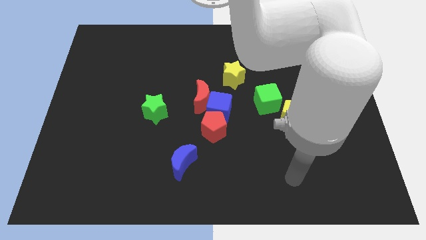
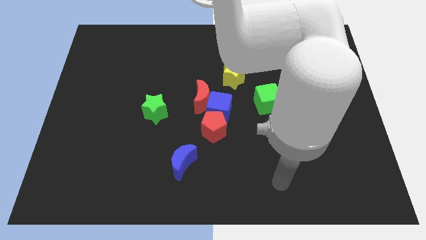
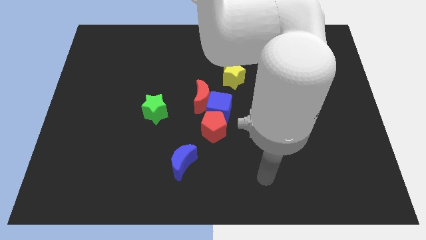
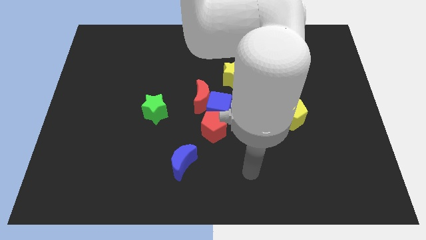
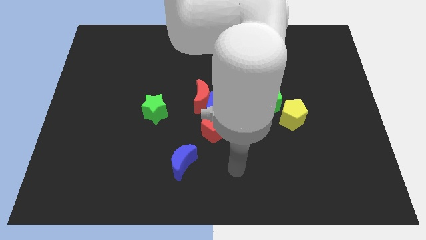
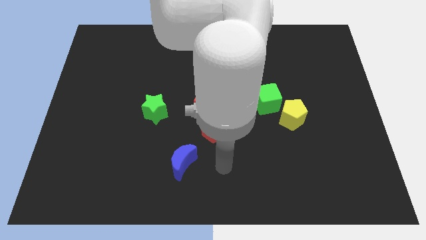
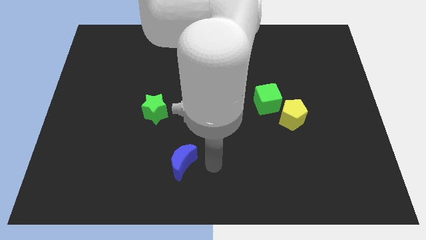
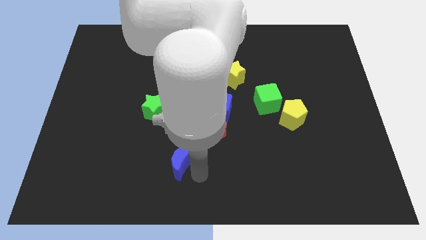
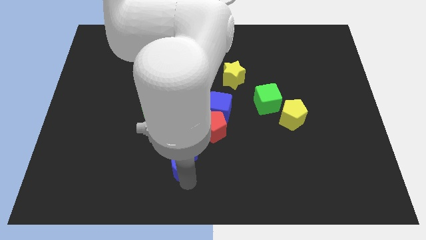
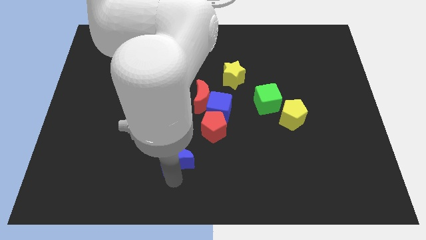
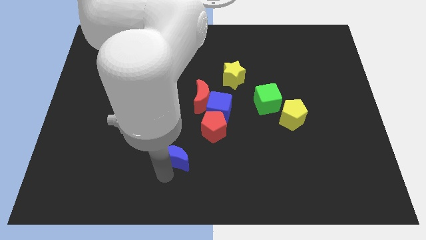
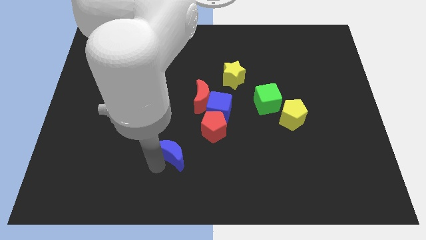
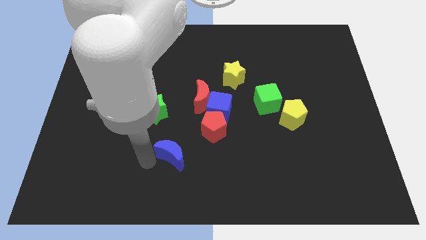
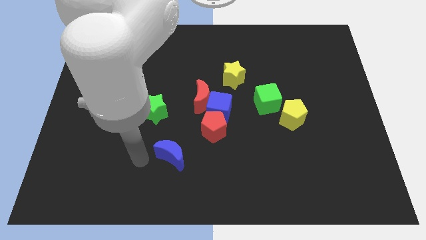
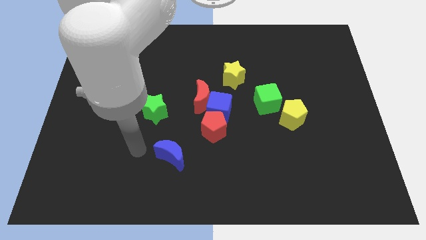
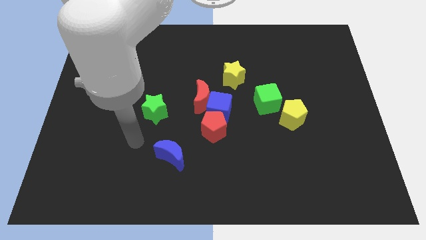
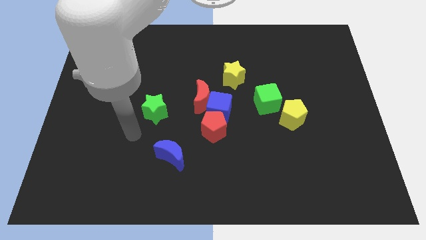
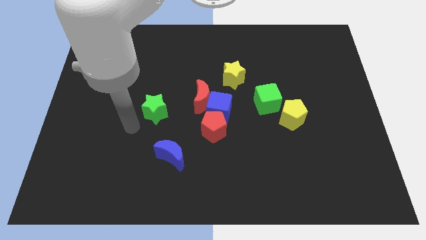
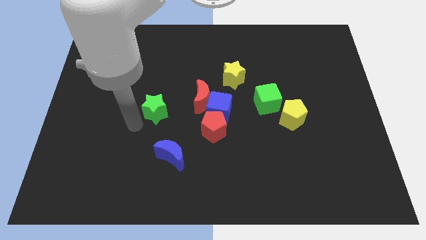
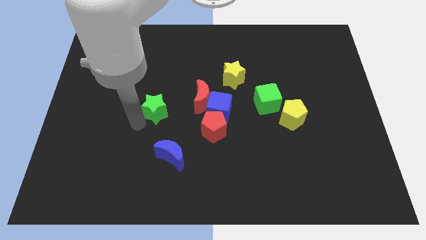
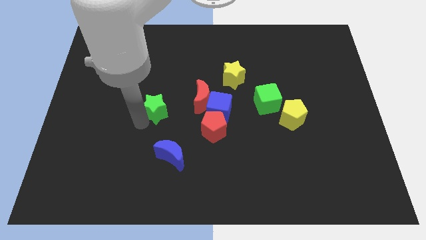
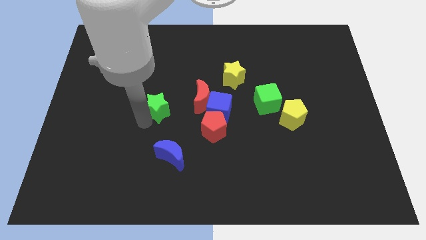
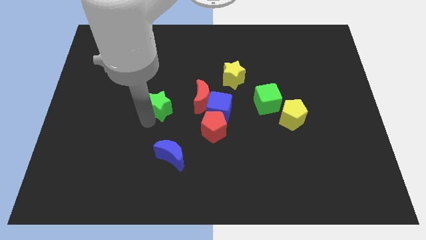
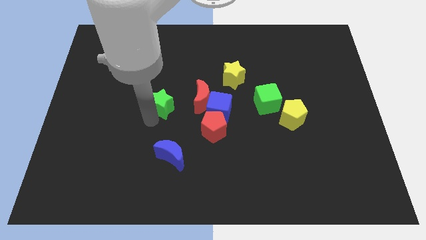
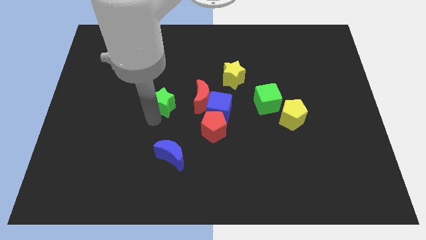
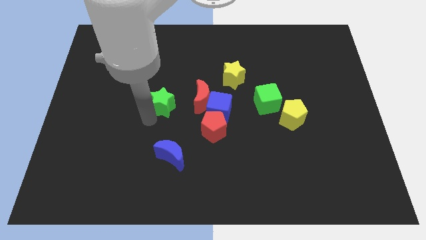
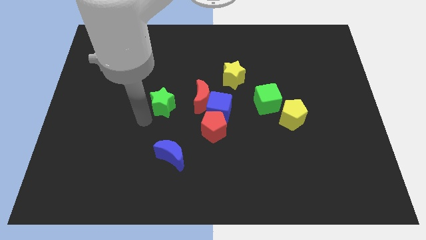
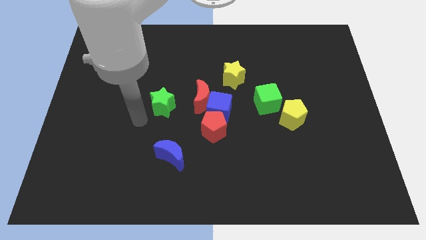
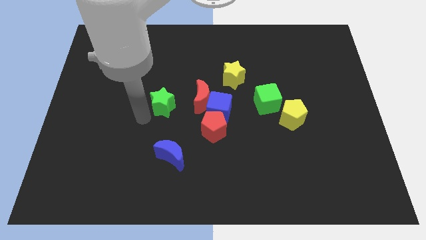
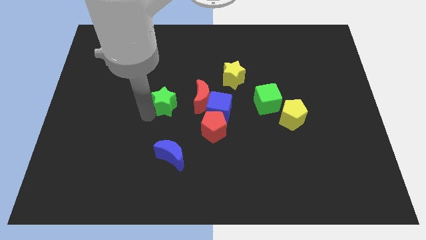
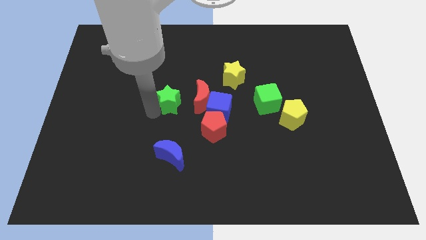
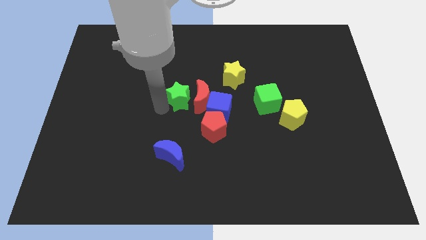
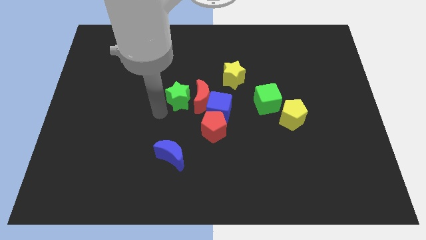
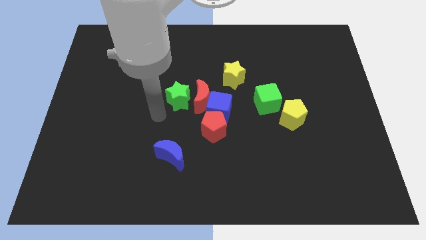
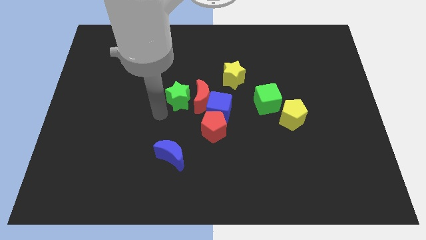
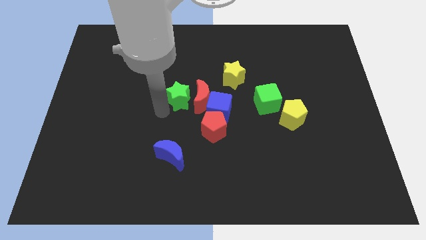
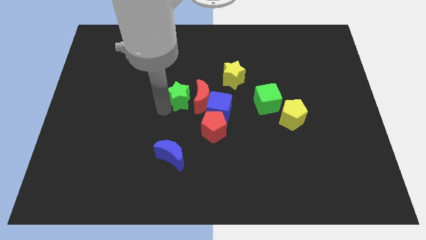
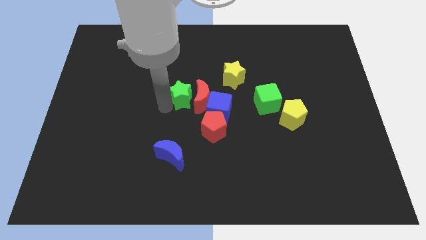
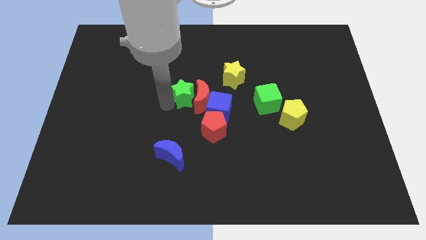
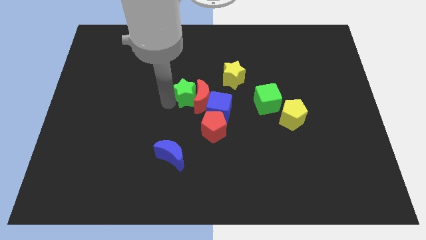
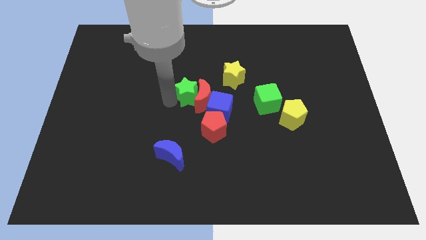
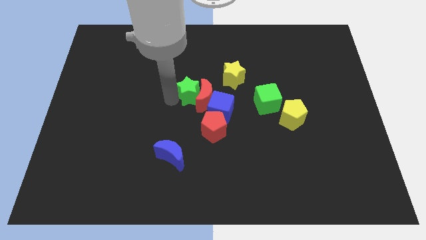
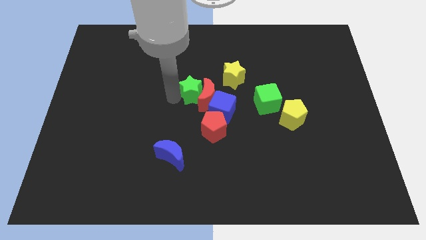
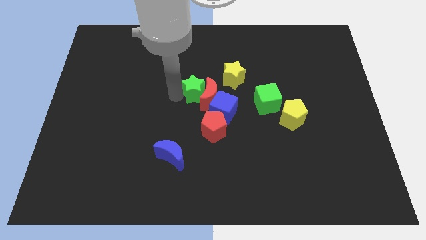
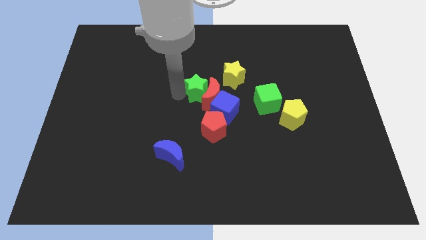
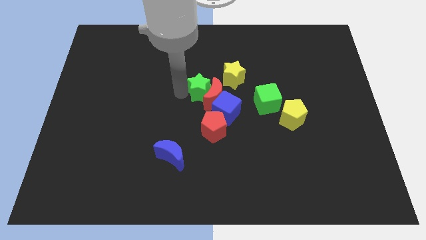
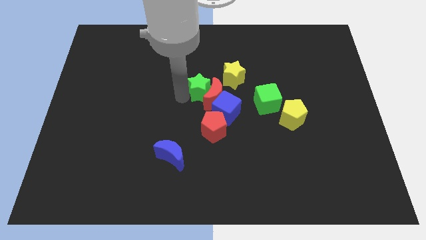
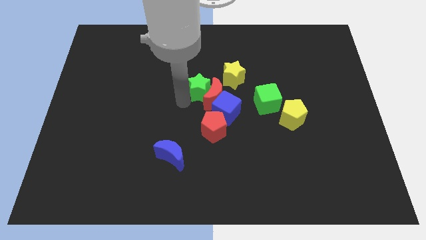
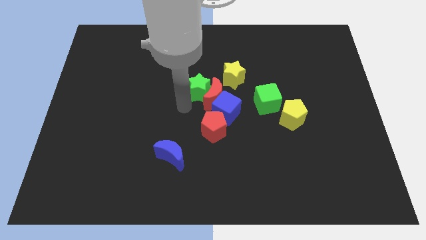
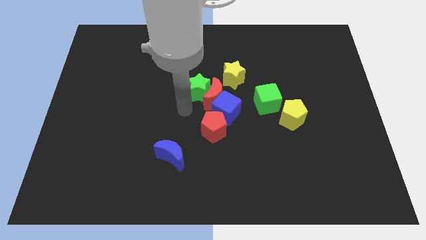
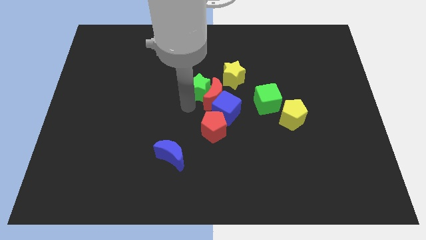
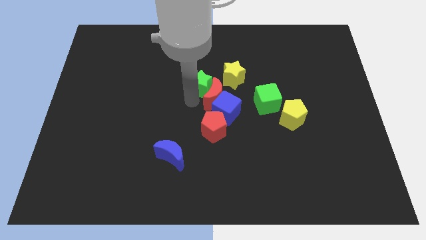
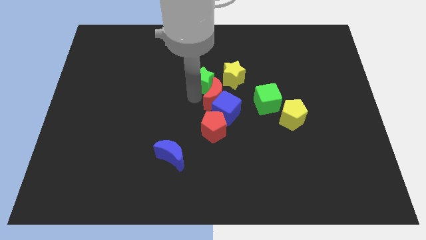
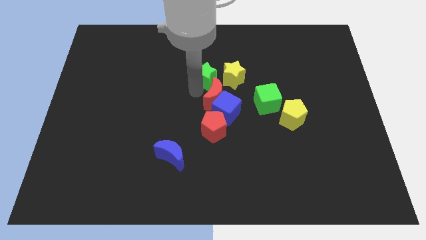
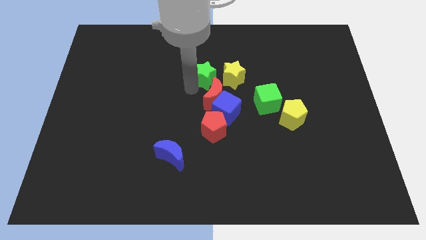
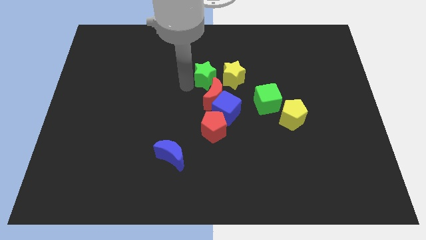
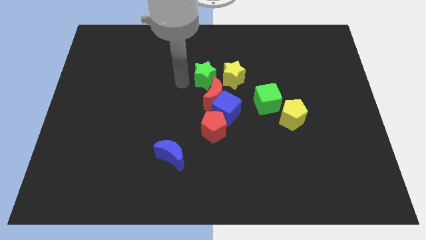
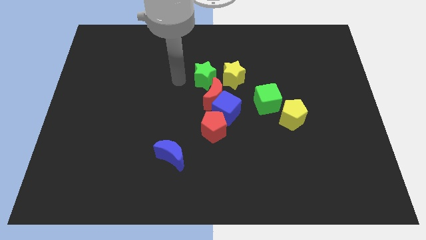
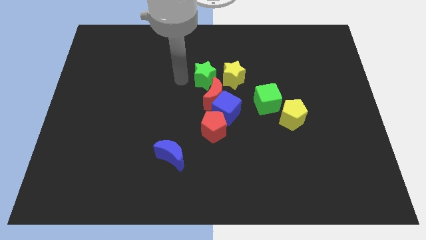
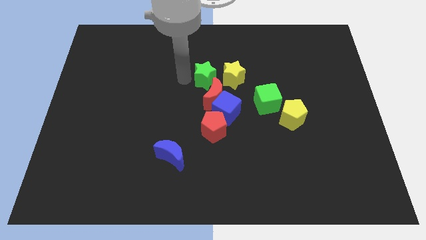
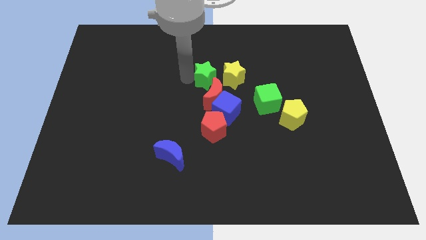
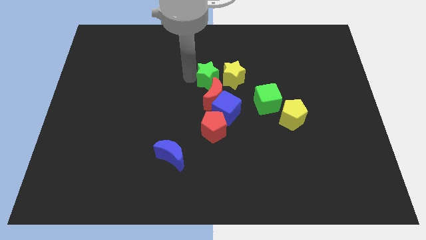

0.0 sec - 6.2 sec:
push the green star to the top side of the blue cube
